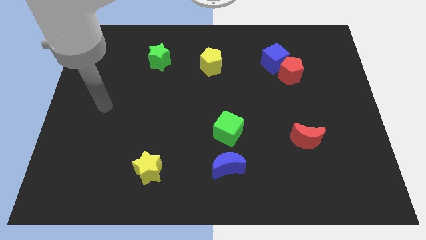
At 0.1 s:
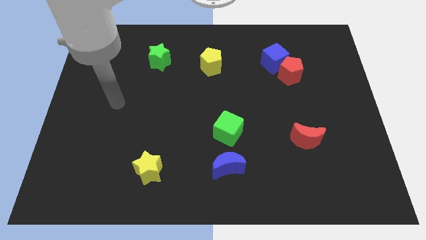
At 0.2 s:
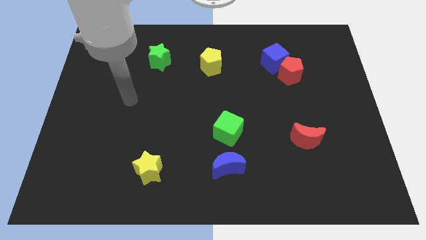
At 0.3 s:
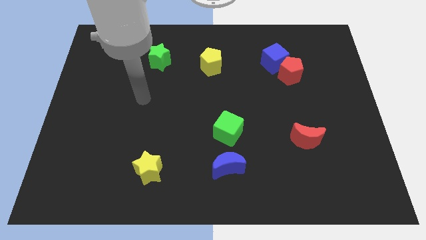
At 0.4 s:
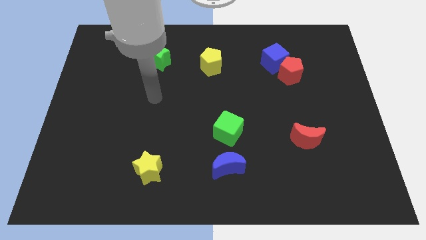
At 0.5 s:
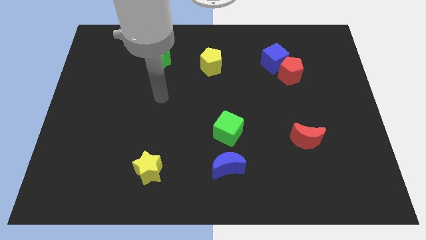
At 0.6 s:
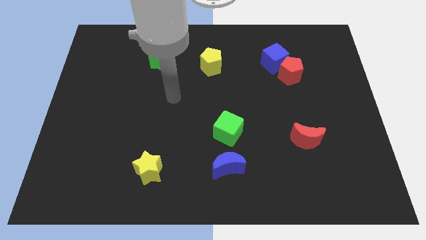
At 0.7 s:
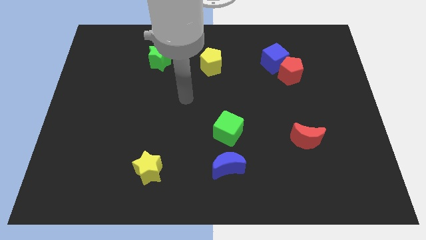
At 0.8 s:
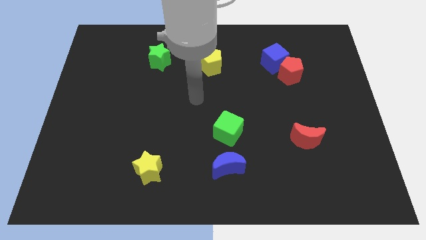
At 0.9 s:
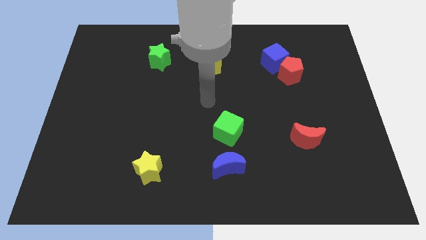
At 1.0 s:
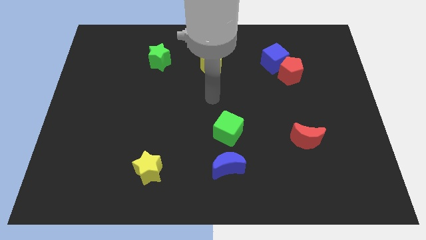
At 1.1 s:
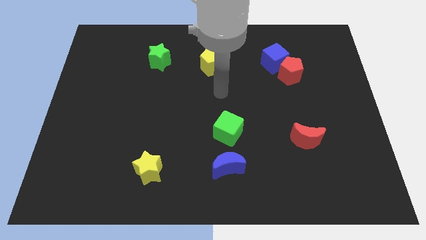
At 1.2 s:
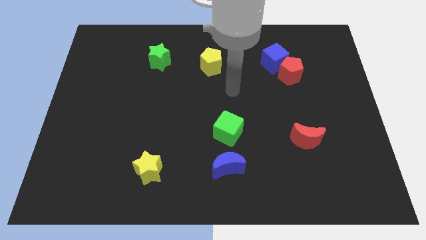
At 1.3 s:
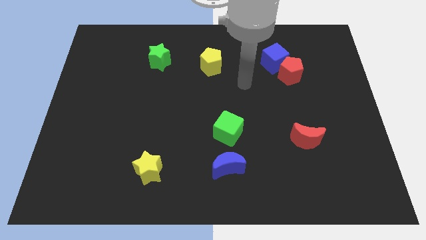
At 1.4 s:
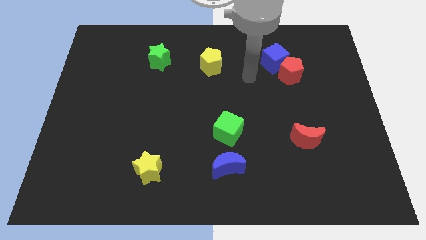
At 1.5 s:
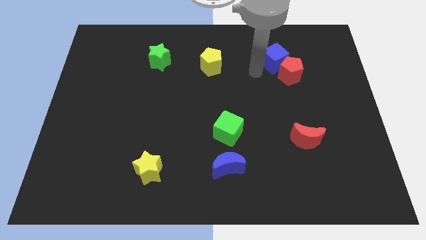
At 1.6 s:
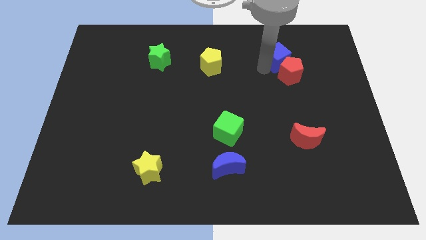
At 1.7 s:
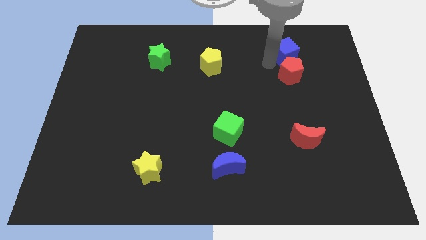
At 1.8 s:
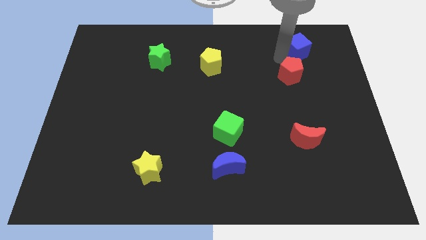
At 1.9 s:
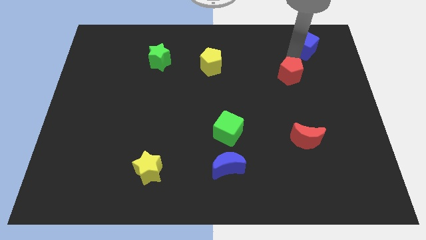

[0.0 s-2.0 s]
move the red pentagon away from the blue cube

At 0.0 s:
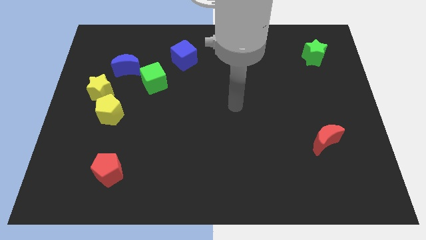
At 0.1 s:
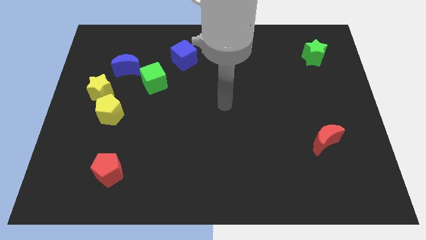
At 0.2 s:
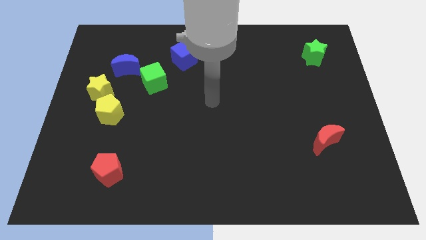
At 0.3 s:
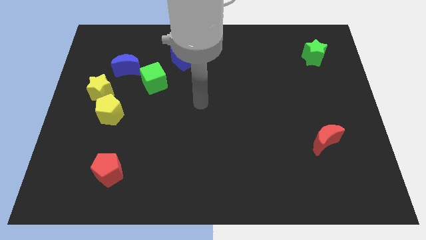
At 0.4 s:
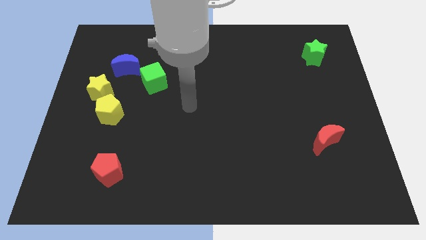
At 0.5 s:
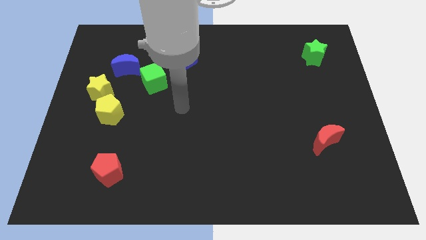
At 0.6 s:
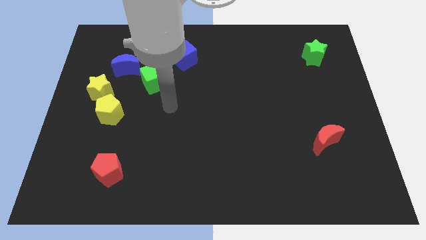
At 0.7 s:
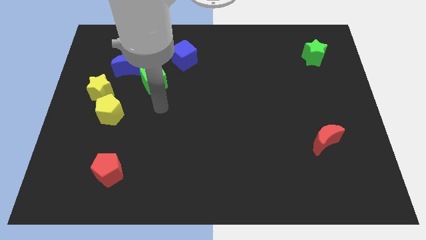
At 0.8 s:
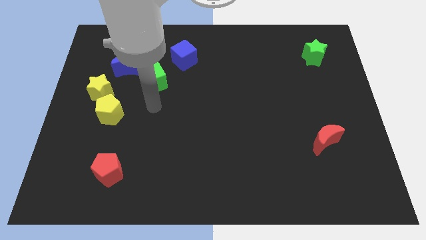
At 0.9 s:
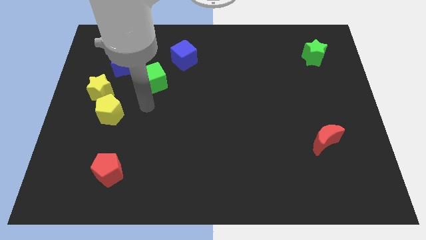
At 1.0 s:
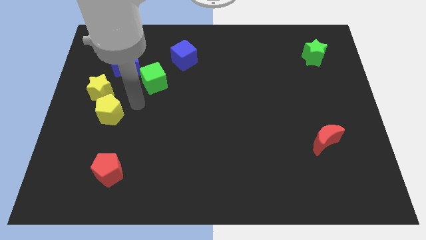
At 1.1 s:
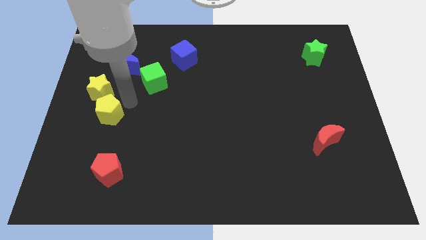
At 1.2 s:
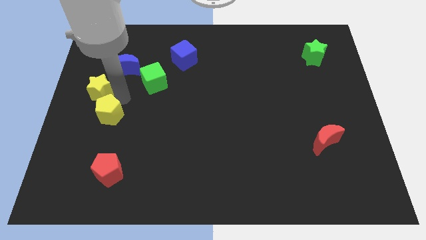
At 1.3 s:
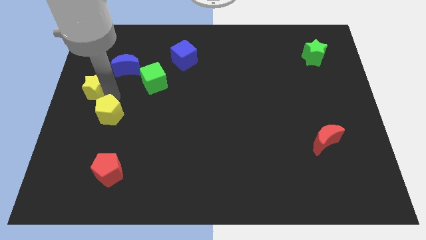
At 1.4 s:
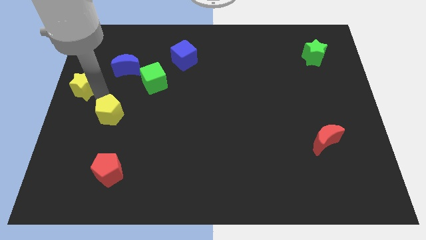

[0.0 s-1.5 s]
separate the yellow pentagon from the yellow star

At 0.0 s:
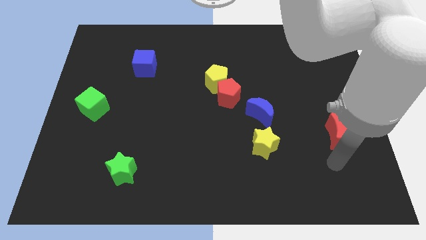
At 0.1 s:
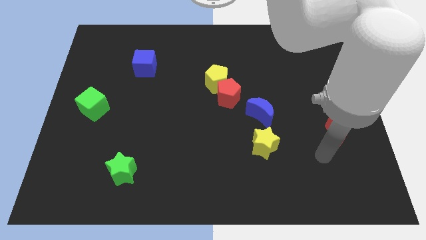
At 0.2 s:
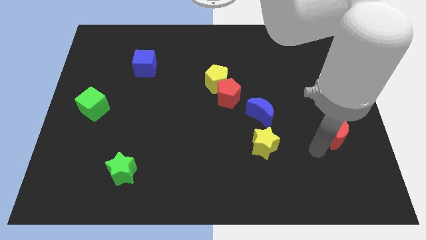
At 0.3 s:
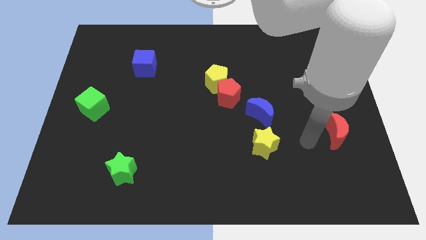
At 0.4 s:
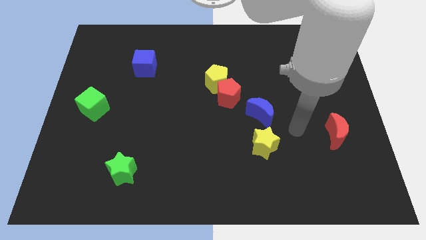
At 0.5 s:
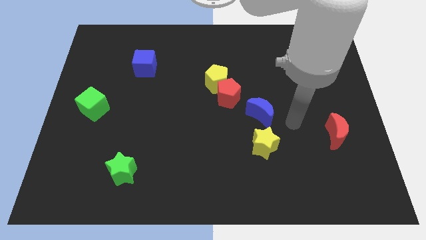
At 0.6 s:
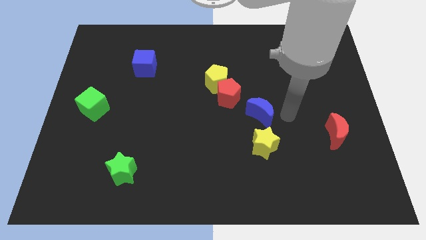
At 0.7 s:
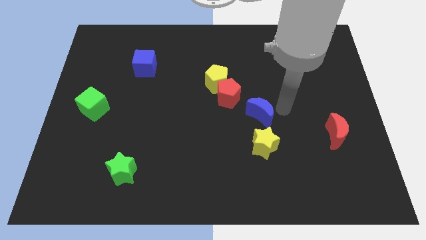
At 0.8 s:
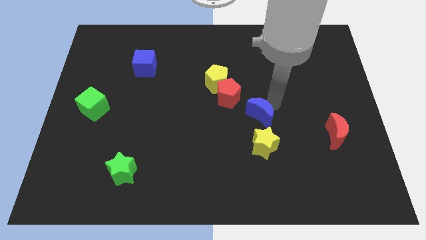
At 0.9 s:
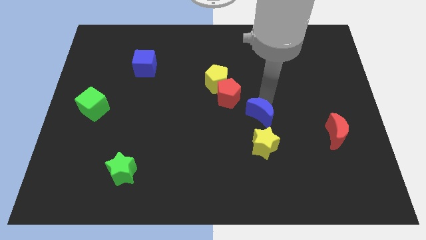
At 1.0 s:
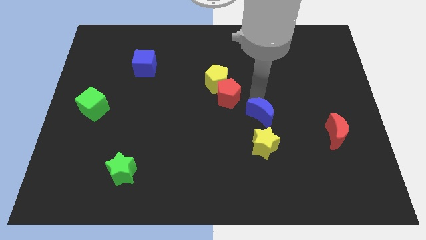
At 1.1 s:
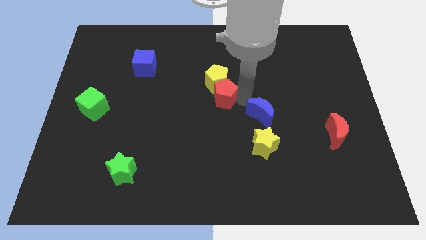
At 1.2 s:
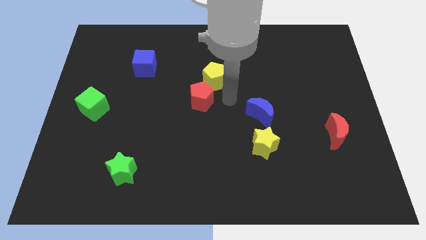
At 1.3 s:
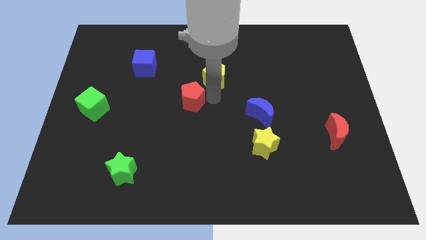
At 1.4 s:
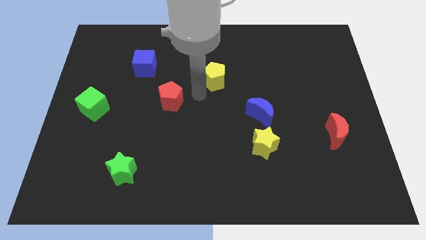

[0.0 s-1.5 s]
move the yellow pentagon away from the red pentagon

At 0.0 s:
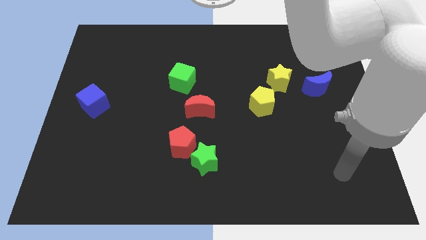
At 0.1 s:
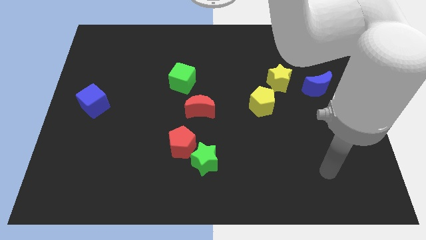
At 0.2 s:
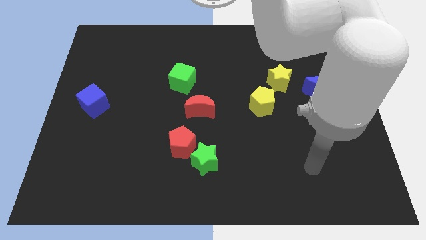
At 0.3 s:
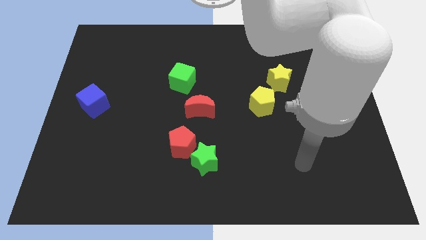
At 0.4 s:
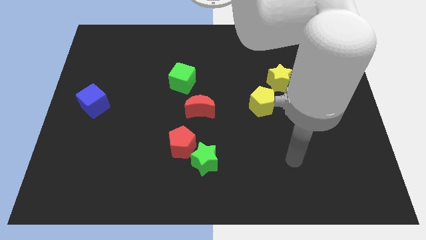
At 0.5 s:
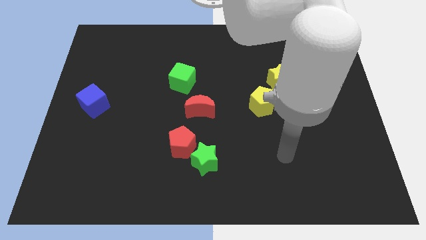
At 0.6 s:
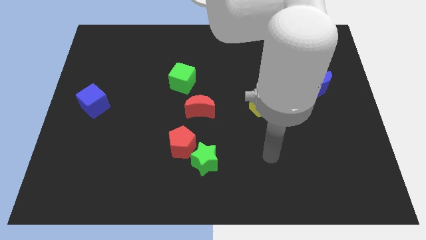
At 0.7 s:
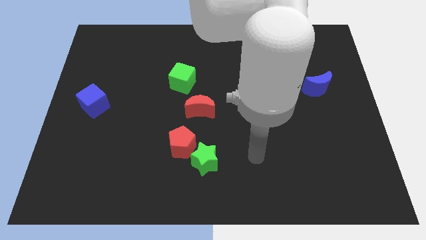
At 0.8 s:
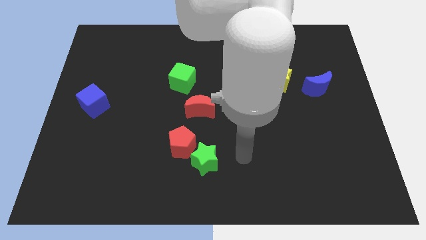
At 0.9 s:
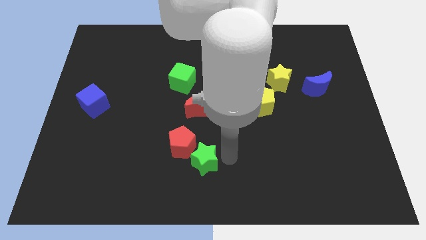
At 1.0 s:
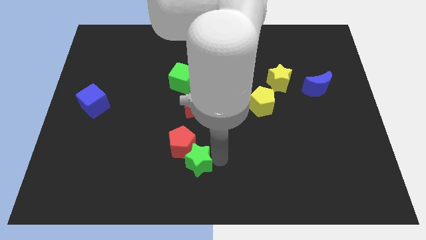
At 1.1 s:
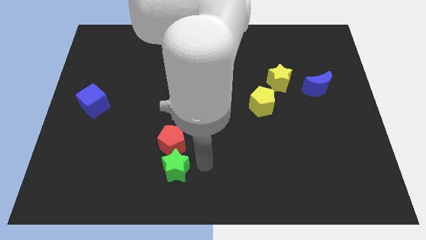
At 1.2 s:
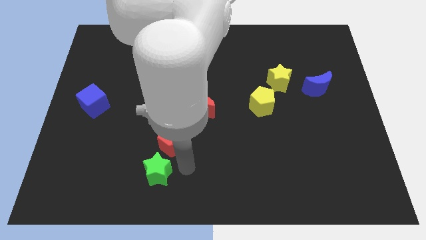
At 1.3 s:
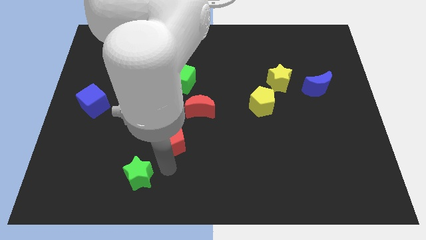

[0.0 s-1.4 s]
separate the red pentagon from the green star

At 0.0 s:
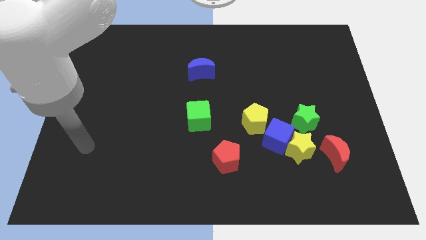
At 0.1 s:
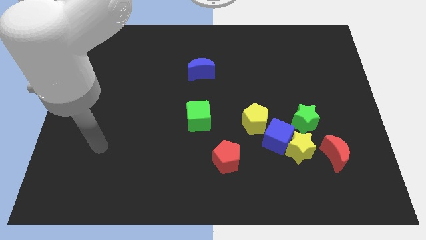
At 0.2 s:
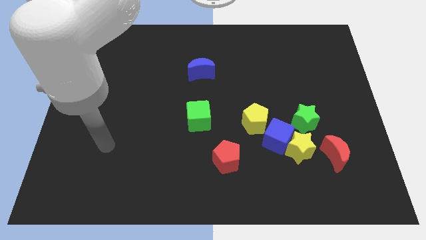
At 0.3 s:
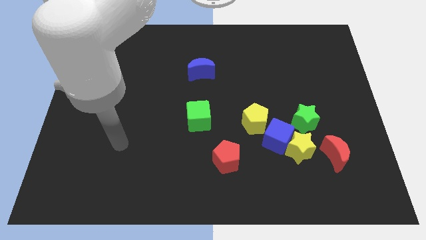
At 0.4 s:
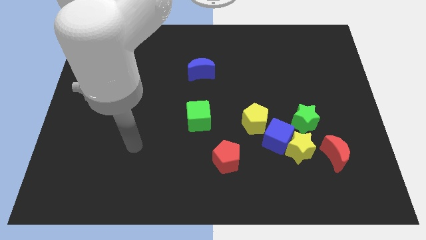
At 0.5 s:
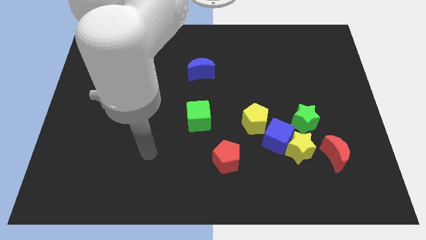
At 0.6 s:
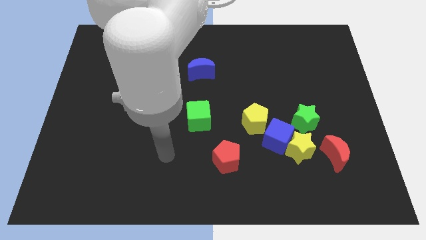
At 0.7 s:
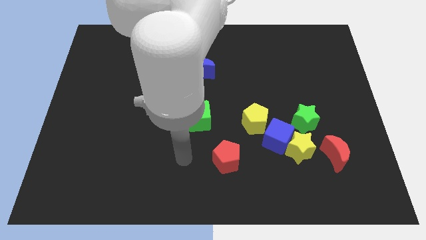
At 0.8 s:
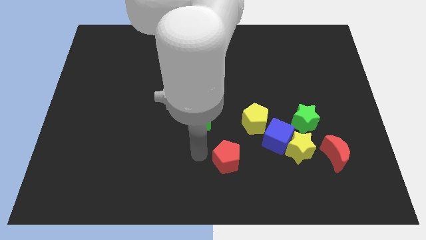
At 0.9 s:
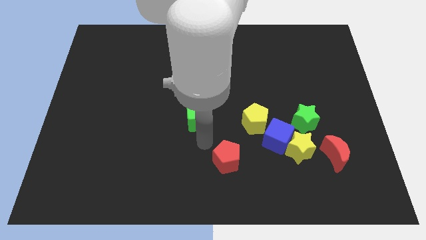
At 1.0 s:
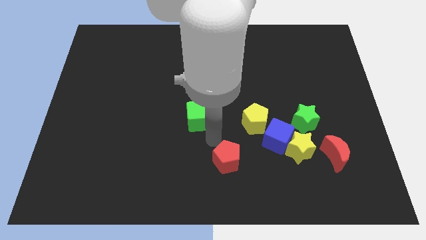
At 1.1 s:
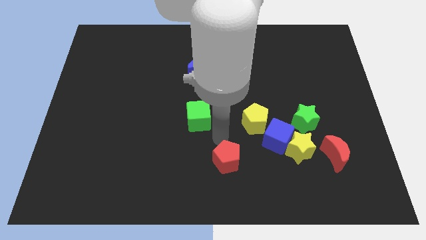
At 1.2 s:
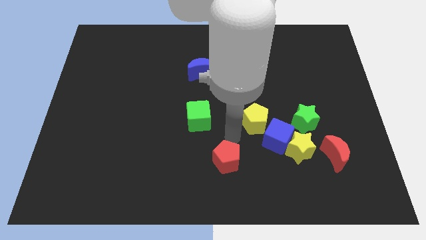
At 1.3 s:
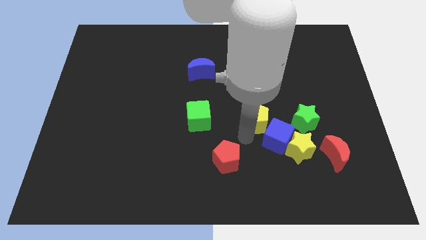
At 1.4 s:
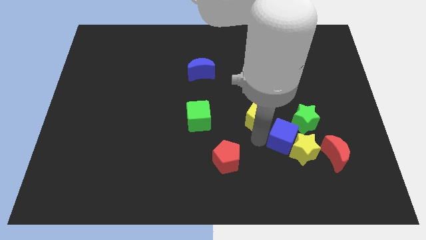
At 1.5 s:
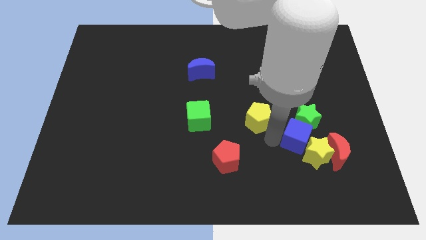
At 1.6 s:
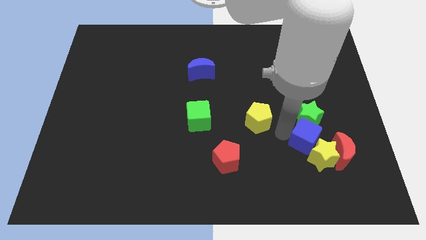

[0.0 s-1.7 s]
pull the yellow pentagon apart from the blue cube

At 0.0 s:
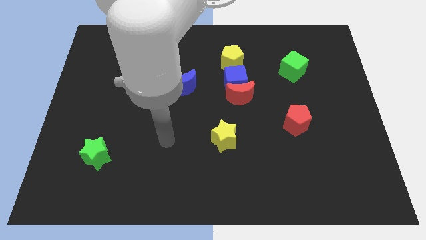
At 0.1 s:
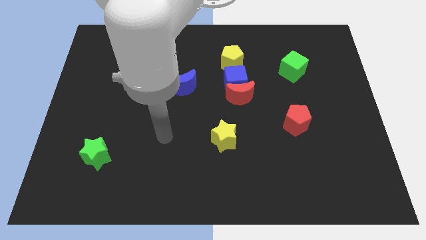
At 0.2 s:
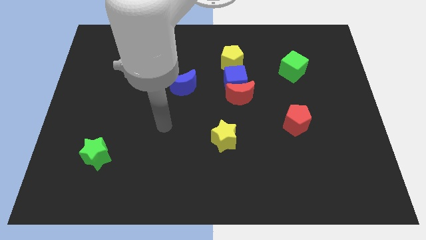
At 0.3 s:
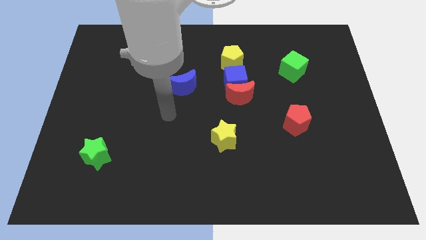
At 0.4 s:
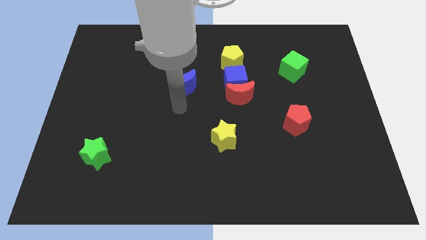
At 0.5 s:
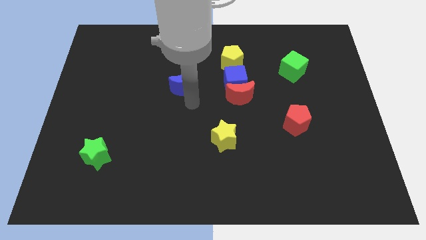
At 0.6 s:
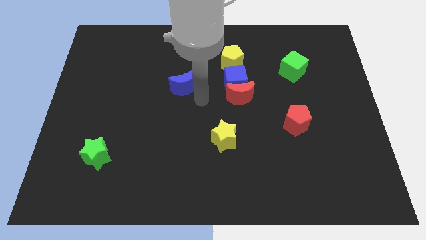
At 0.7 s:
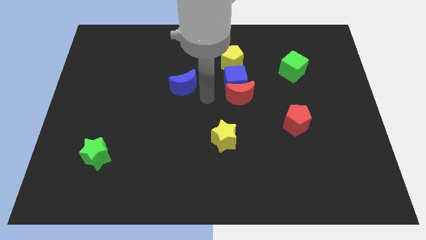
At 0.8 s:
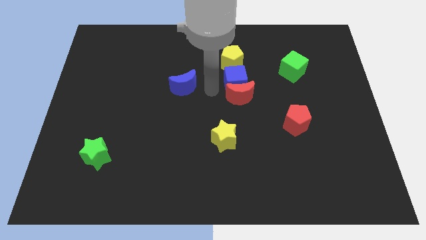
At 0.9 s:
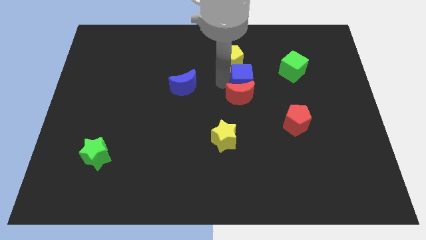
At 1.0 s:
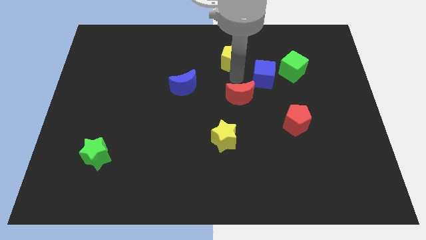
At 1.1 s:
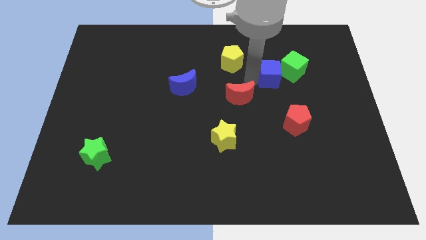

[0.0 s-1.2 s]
separate the red moon from the blue cube
